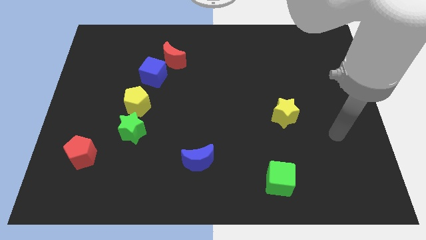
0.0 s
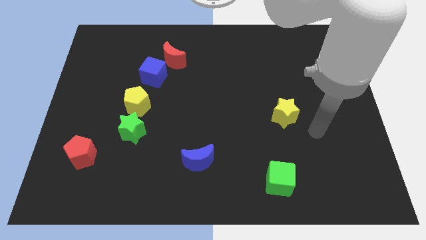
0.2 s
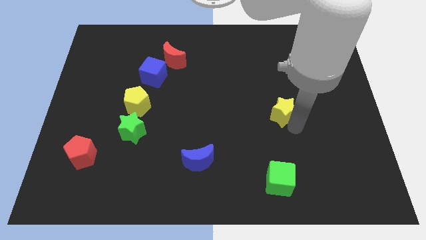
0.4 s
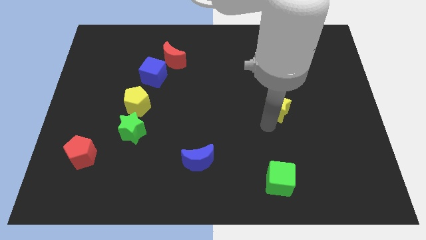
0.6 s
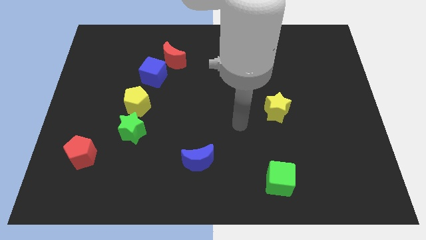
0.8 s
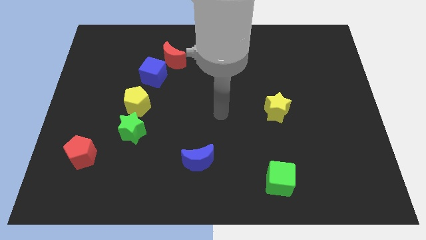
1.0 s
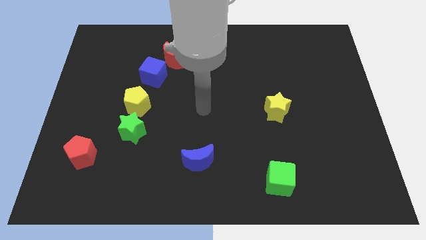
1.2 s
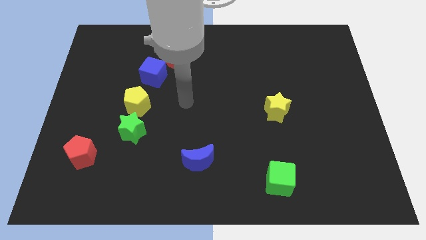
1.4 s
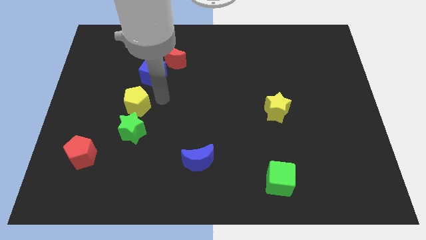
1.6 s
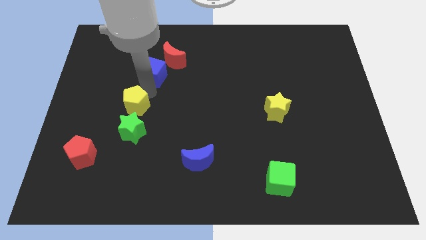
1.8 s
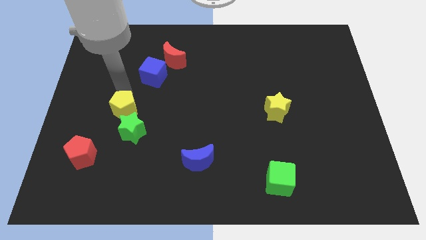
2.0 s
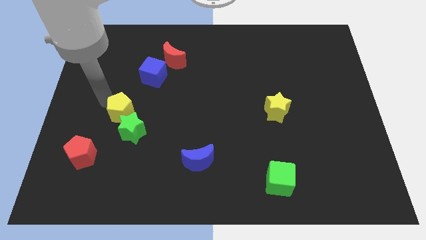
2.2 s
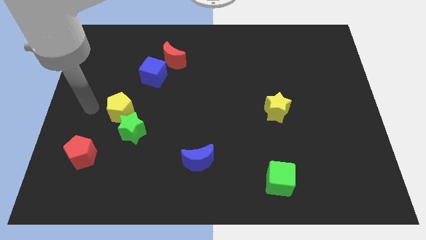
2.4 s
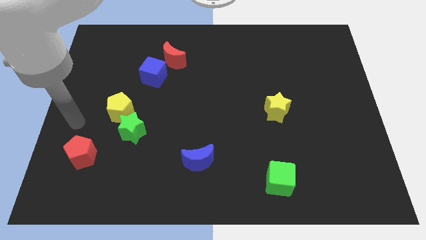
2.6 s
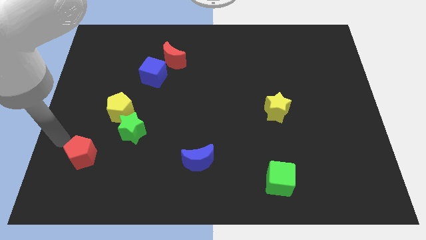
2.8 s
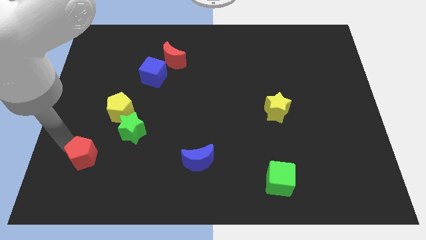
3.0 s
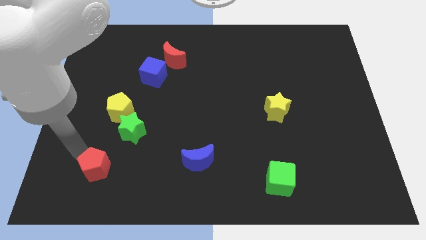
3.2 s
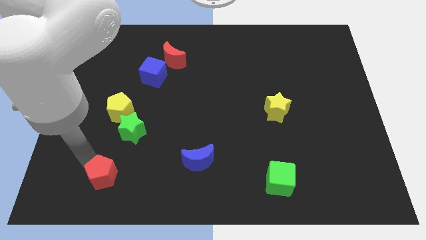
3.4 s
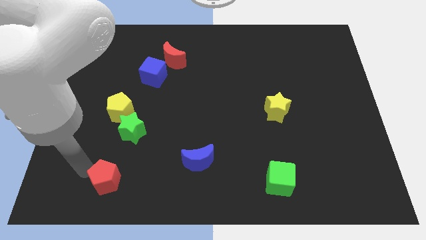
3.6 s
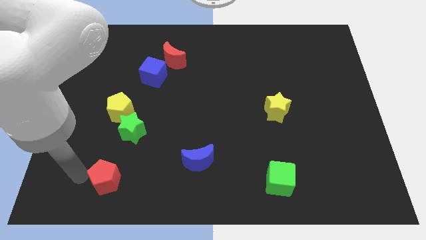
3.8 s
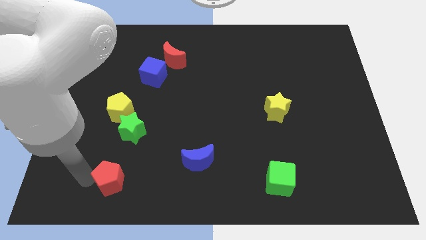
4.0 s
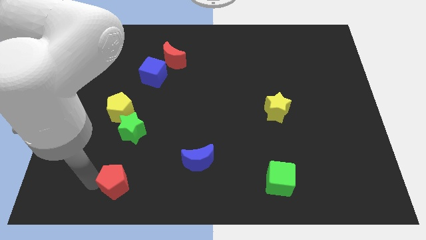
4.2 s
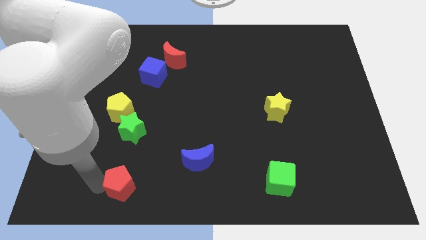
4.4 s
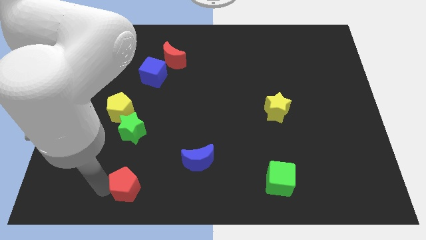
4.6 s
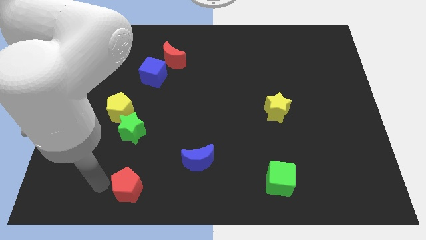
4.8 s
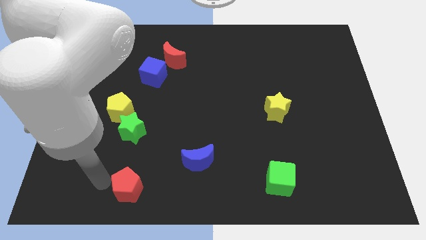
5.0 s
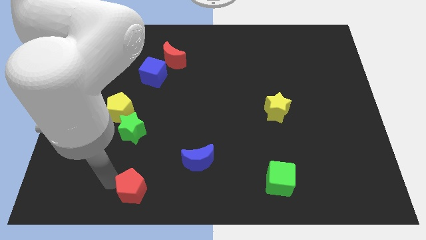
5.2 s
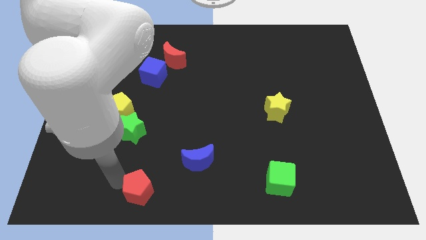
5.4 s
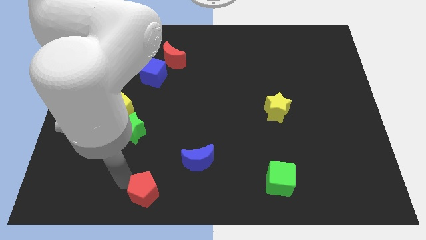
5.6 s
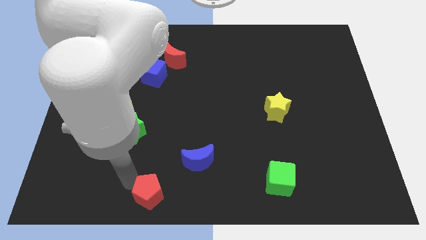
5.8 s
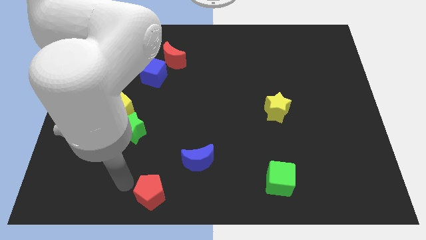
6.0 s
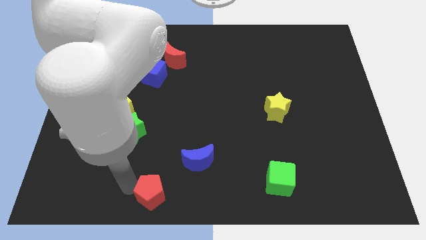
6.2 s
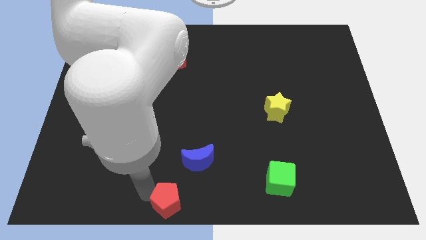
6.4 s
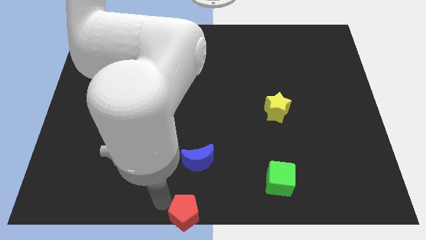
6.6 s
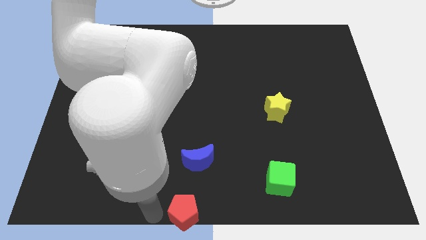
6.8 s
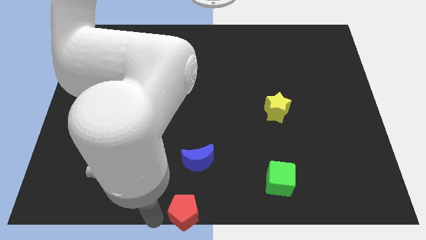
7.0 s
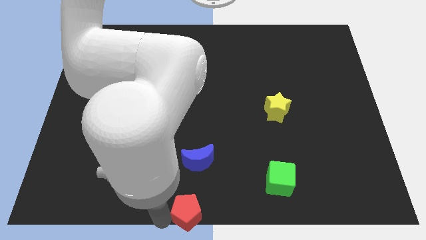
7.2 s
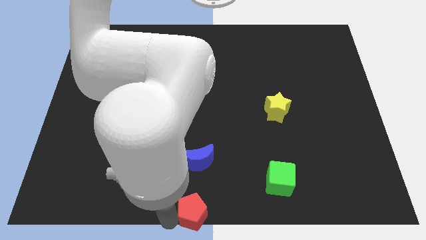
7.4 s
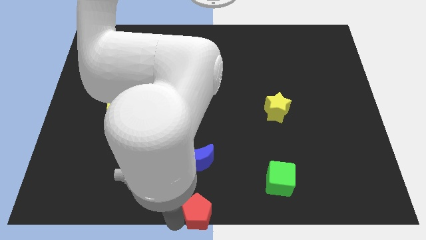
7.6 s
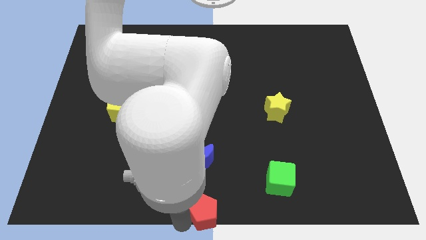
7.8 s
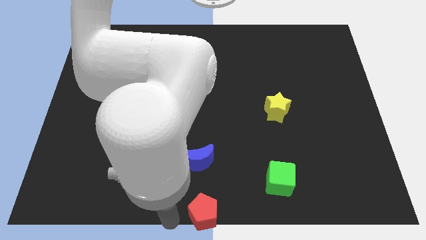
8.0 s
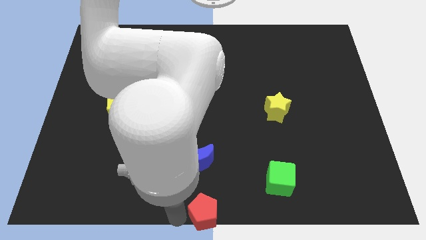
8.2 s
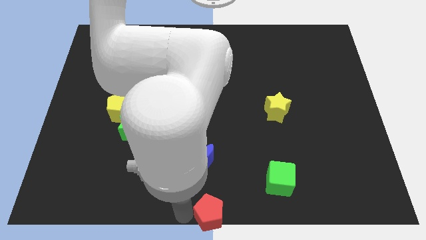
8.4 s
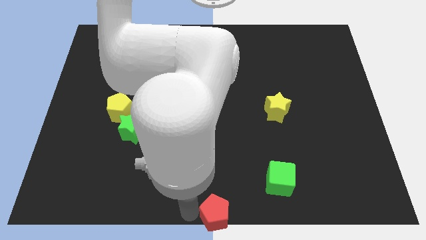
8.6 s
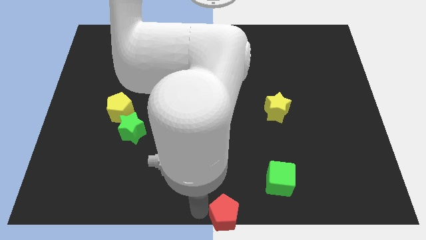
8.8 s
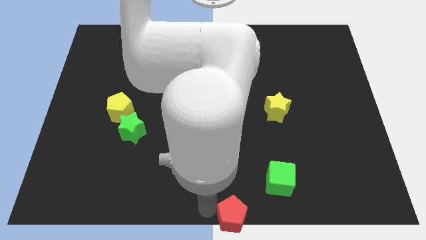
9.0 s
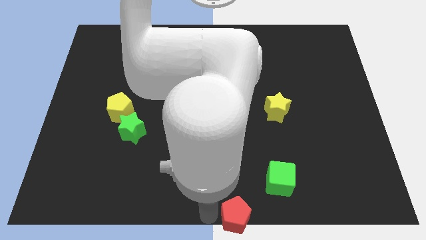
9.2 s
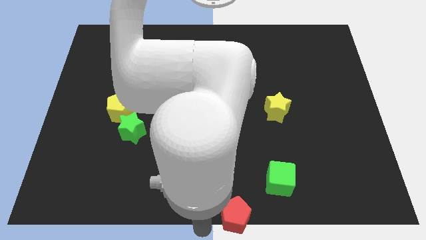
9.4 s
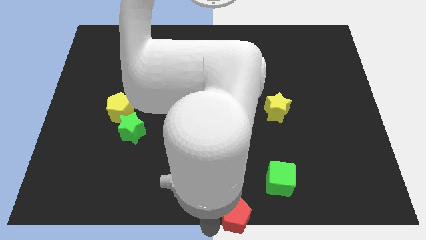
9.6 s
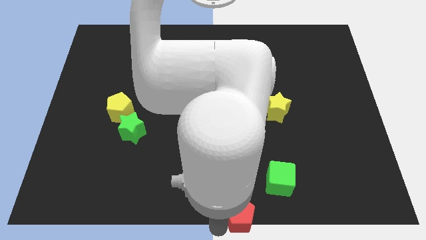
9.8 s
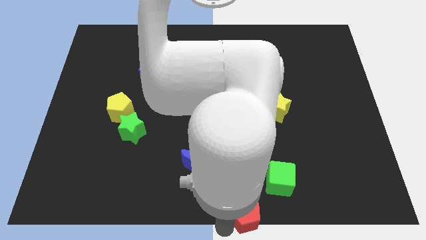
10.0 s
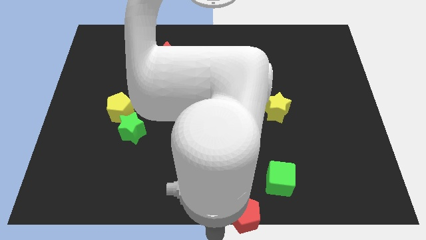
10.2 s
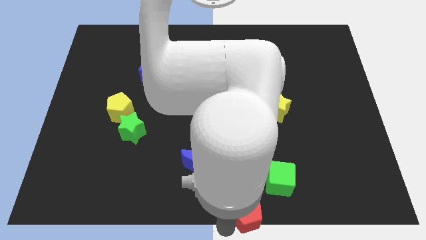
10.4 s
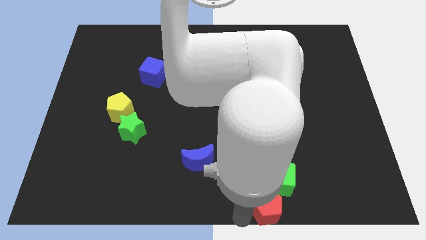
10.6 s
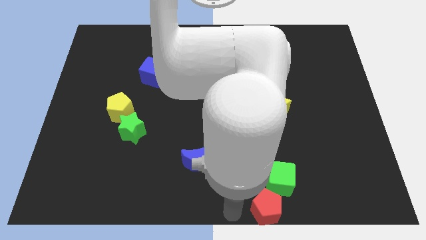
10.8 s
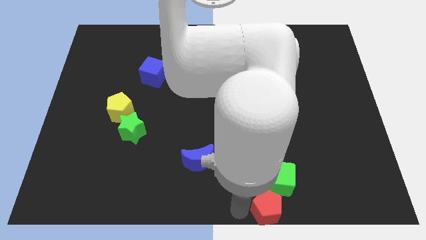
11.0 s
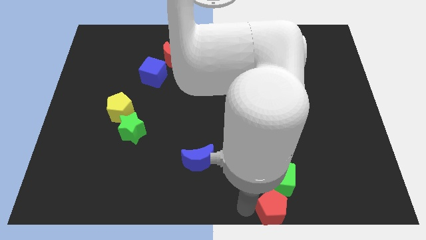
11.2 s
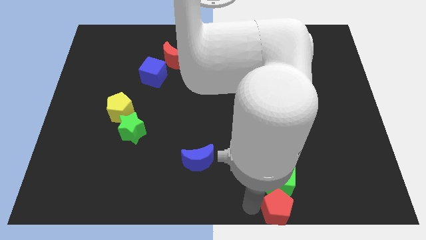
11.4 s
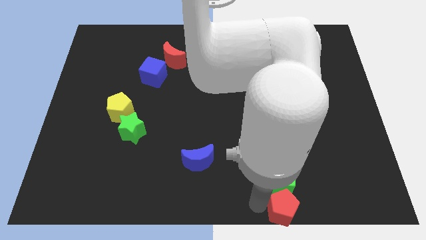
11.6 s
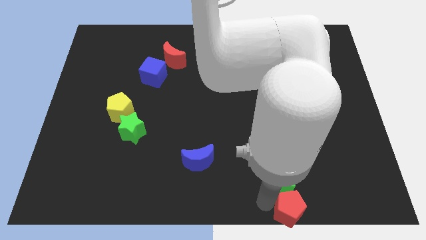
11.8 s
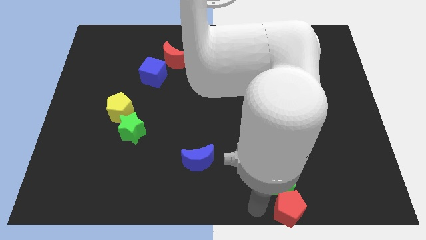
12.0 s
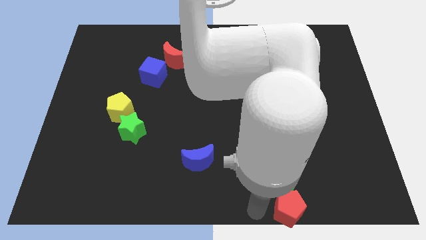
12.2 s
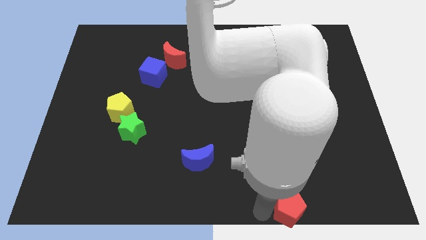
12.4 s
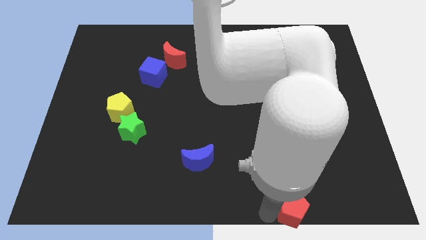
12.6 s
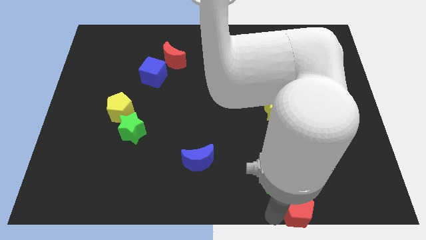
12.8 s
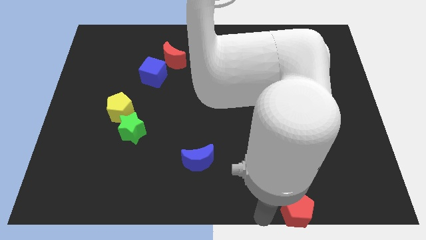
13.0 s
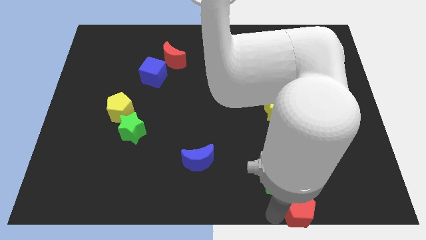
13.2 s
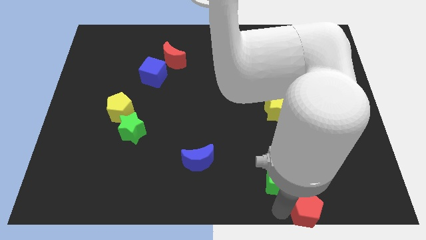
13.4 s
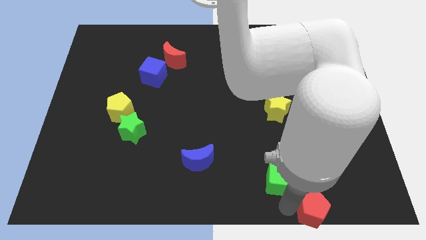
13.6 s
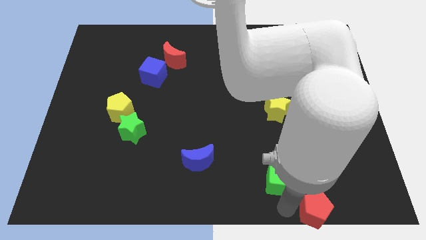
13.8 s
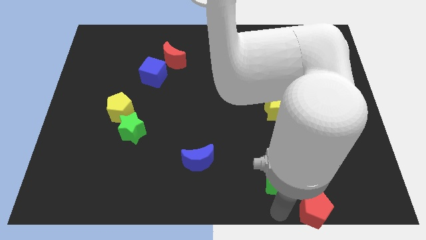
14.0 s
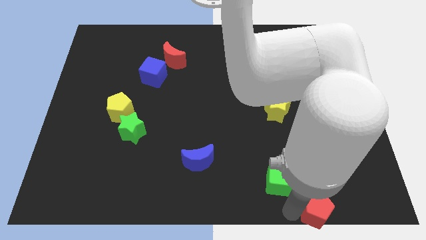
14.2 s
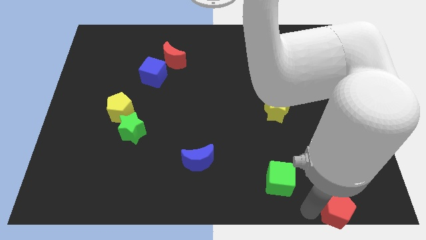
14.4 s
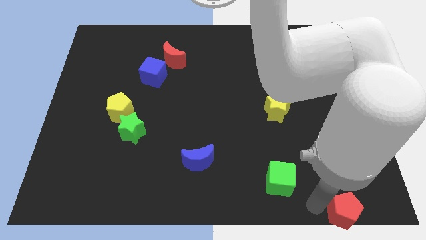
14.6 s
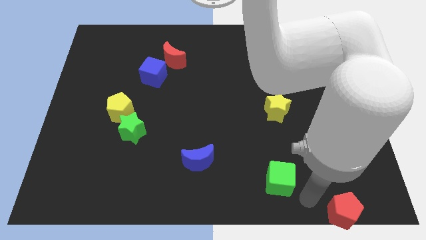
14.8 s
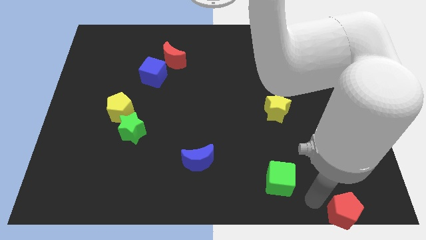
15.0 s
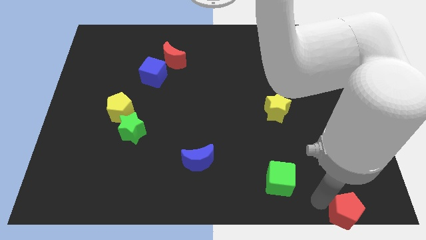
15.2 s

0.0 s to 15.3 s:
move the red pentagon to the lower right corner
